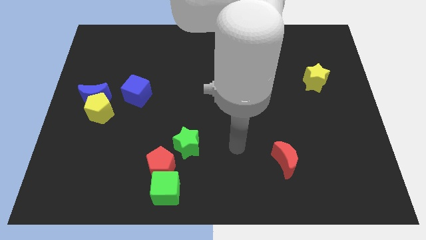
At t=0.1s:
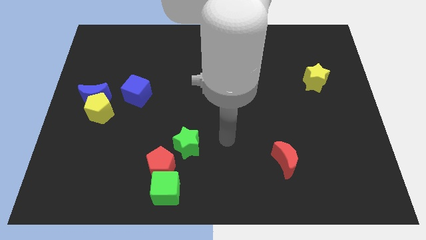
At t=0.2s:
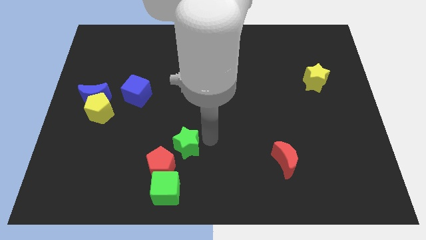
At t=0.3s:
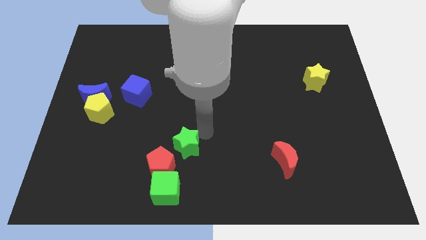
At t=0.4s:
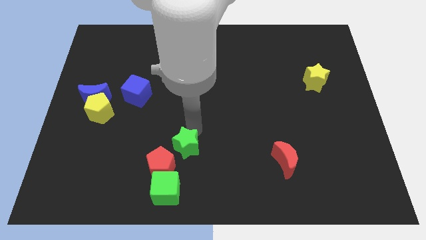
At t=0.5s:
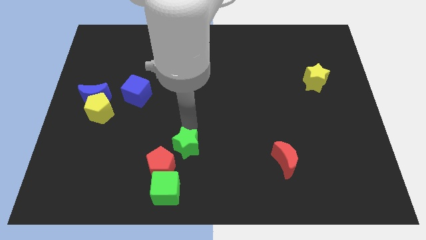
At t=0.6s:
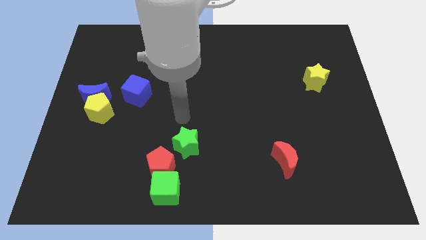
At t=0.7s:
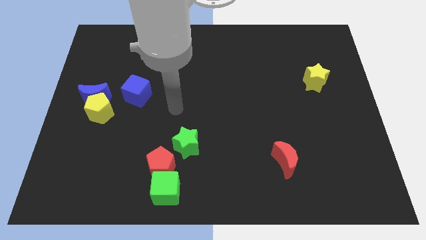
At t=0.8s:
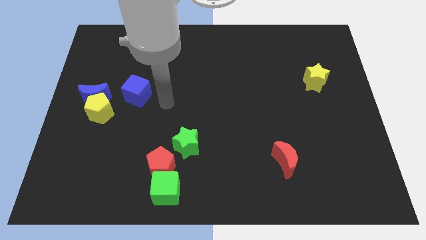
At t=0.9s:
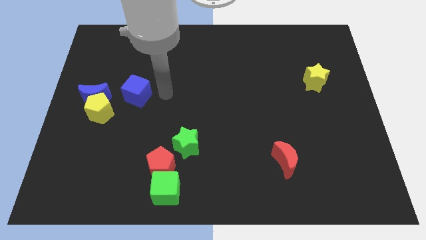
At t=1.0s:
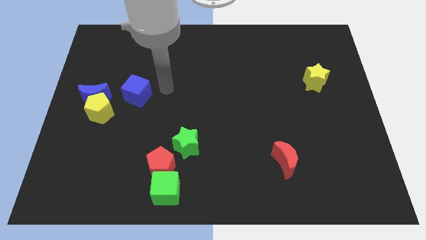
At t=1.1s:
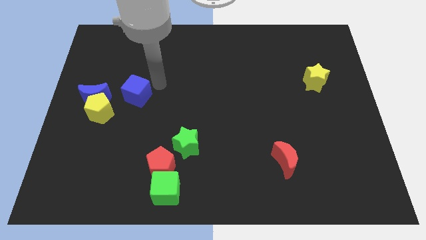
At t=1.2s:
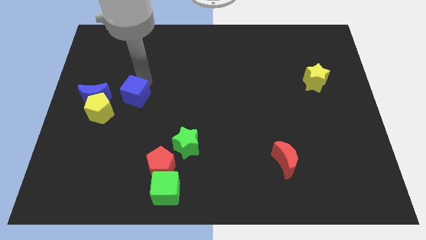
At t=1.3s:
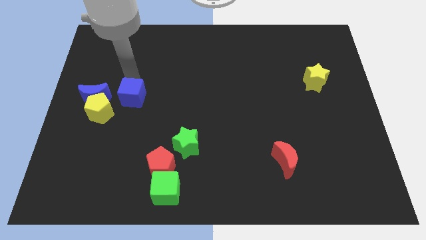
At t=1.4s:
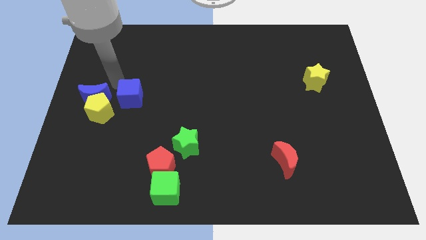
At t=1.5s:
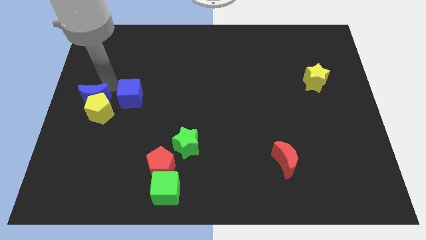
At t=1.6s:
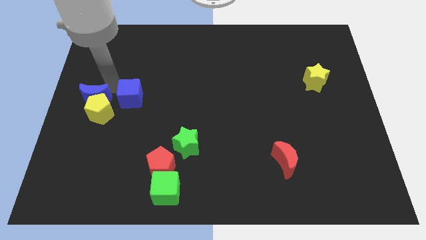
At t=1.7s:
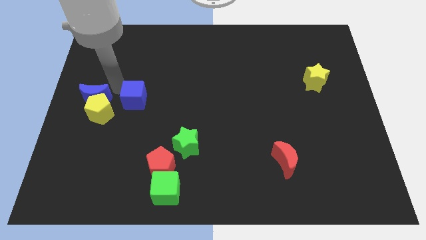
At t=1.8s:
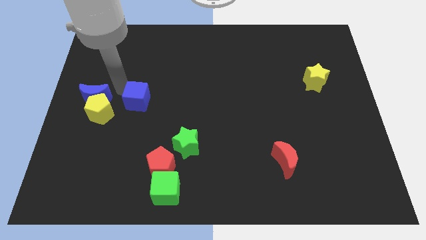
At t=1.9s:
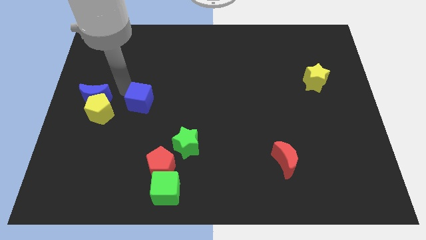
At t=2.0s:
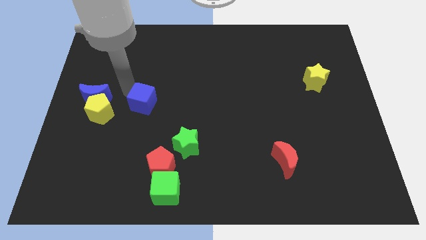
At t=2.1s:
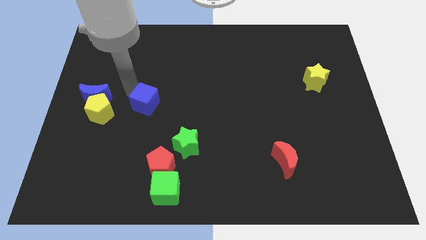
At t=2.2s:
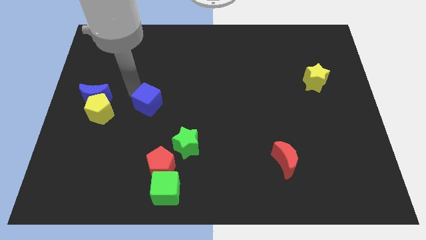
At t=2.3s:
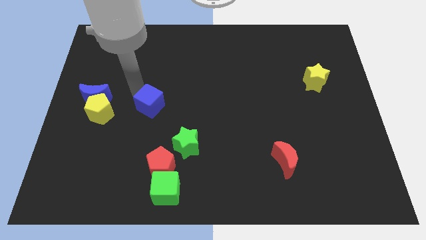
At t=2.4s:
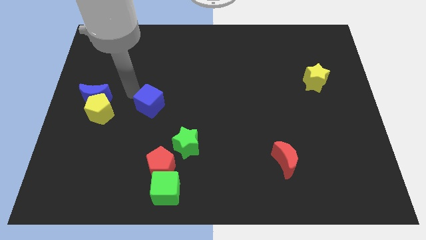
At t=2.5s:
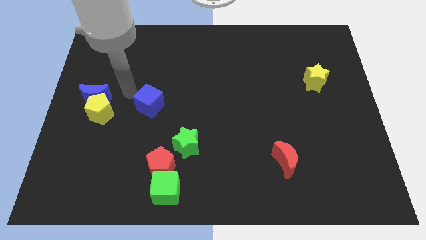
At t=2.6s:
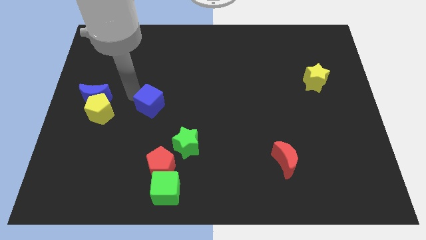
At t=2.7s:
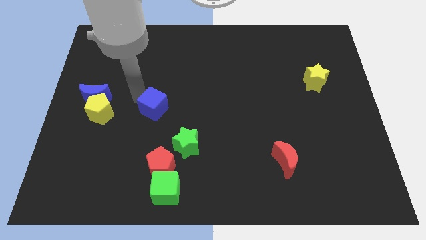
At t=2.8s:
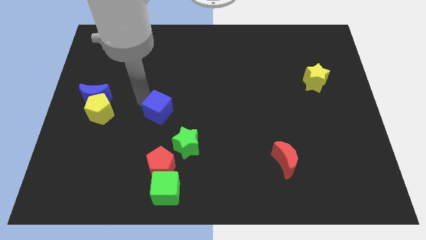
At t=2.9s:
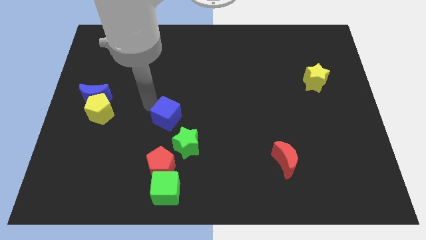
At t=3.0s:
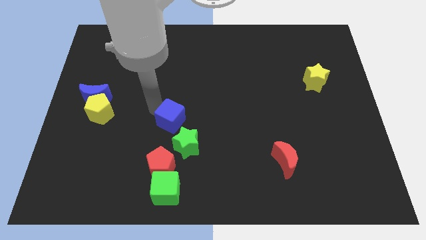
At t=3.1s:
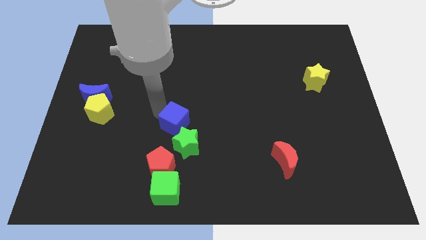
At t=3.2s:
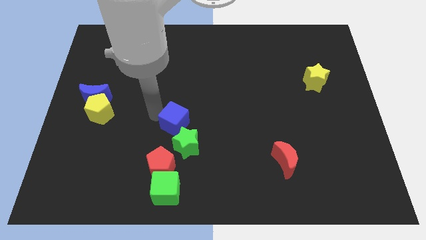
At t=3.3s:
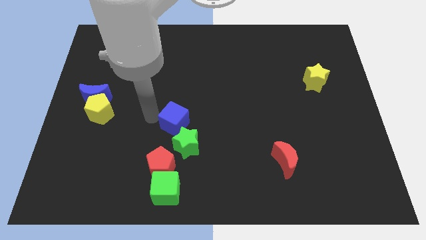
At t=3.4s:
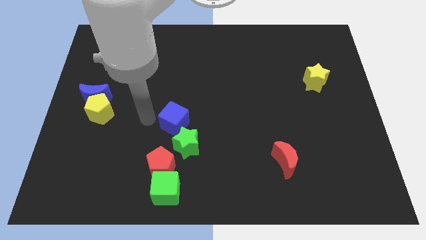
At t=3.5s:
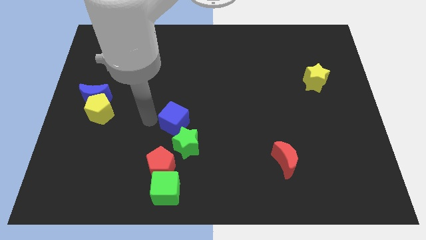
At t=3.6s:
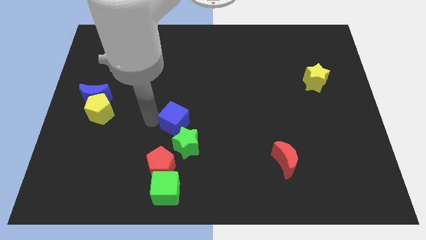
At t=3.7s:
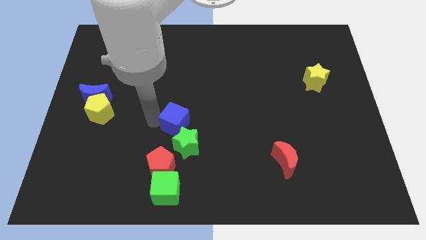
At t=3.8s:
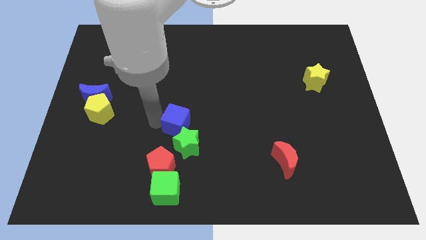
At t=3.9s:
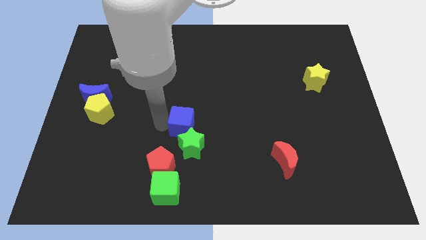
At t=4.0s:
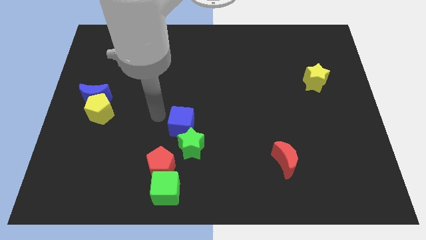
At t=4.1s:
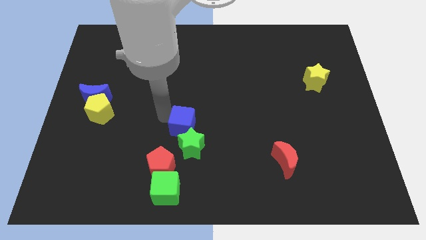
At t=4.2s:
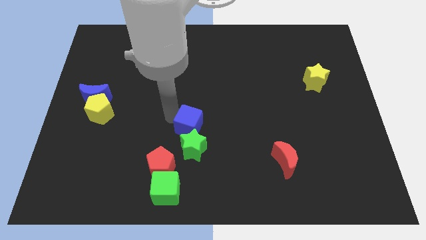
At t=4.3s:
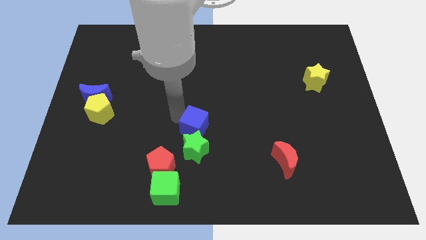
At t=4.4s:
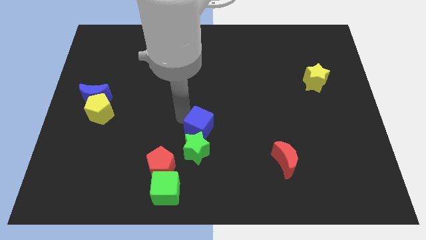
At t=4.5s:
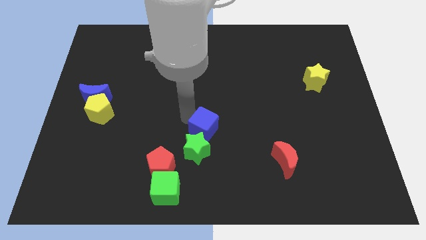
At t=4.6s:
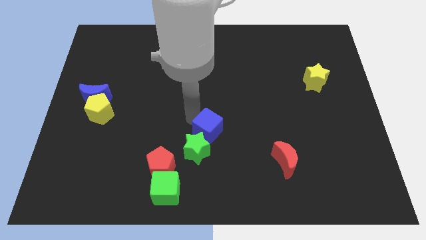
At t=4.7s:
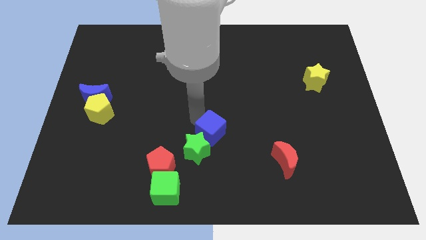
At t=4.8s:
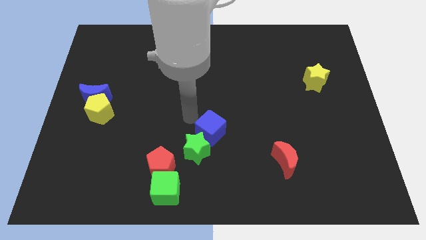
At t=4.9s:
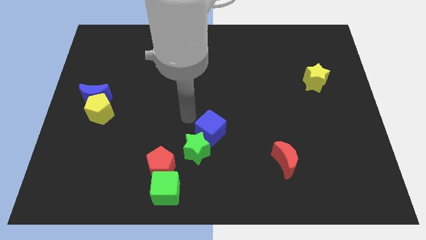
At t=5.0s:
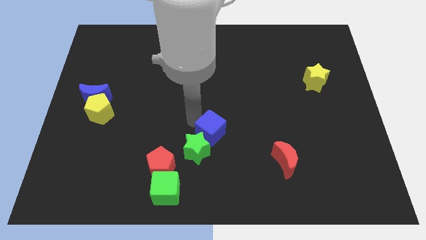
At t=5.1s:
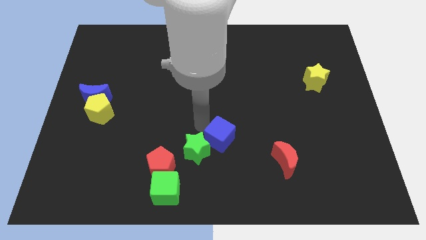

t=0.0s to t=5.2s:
slide the blue cube right of the green star

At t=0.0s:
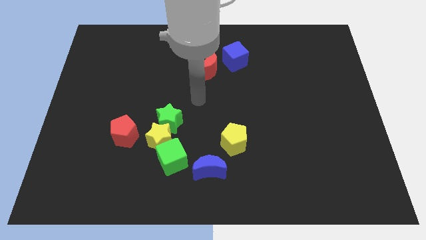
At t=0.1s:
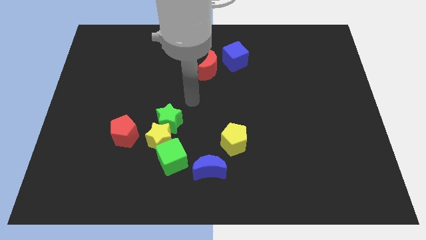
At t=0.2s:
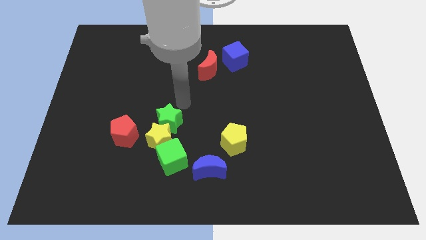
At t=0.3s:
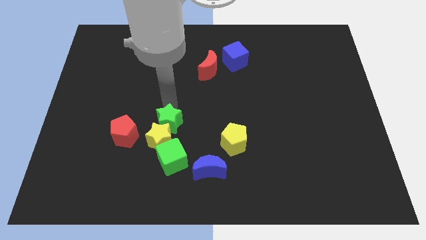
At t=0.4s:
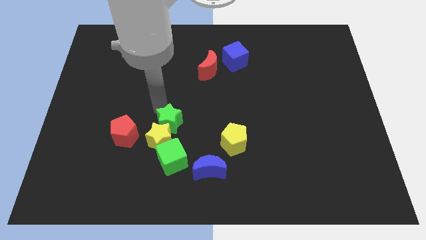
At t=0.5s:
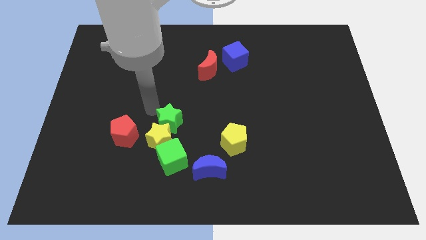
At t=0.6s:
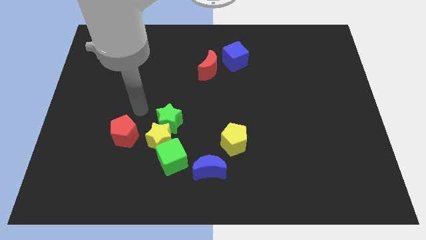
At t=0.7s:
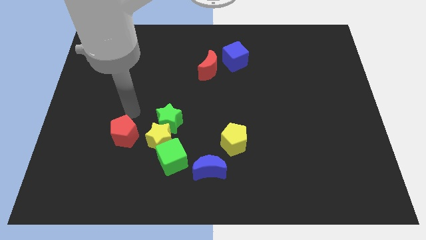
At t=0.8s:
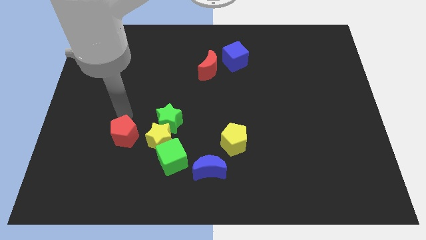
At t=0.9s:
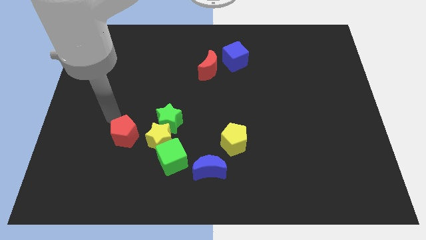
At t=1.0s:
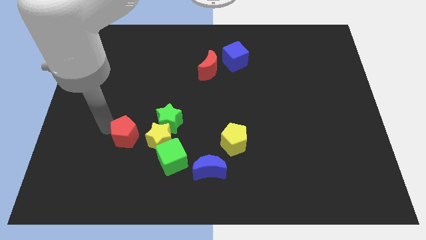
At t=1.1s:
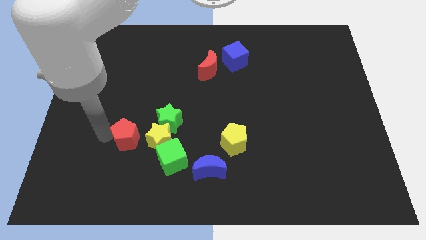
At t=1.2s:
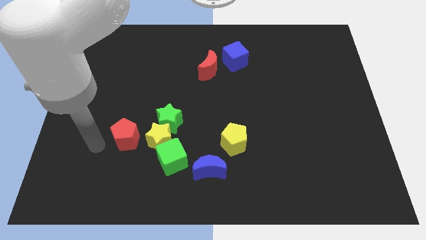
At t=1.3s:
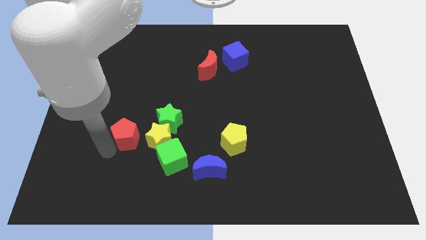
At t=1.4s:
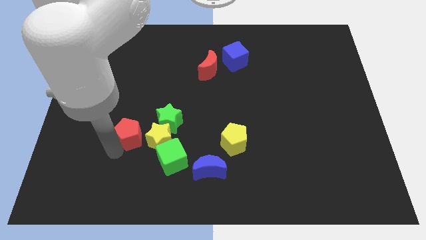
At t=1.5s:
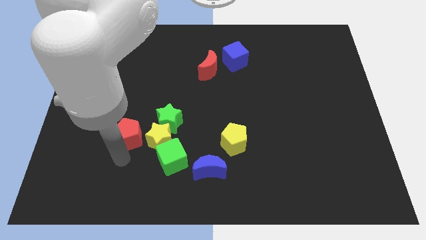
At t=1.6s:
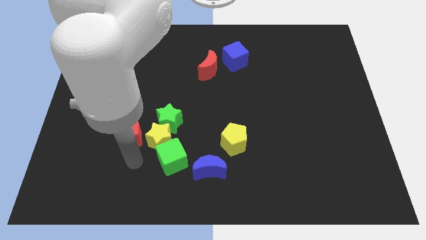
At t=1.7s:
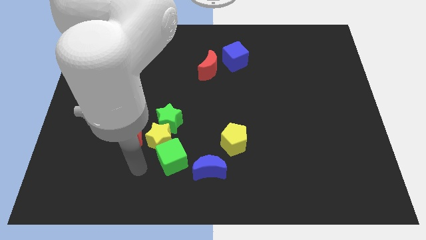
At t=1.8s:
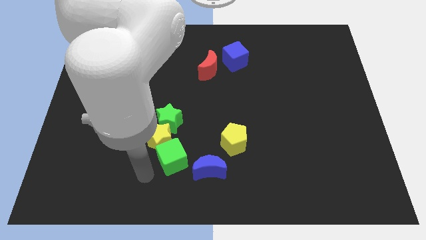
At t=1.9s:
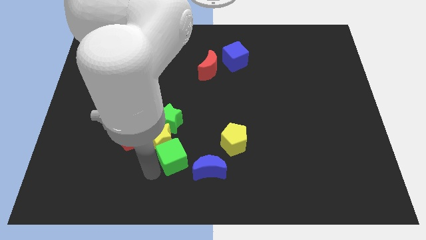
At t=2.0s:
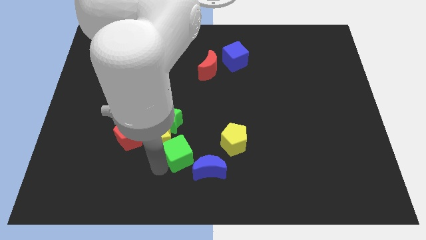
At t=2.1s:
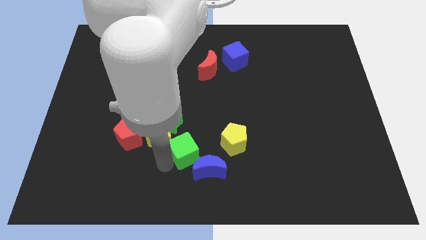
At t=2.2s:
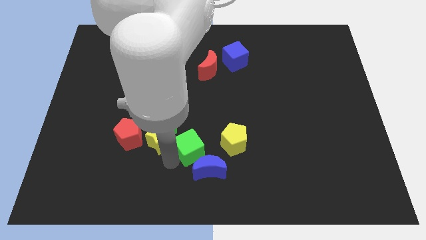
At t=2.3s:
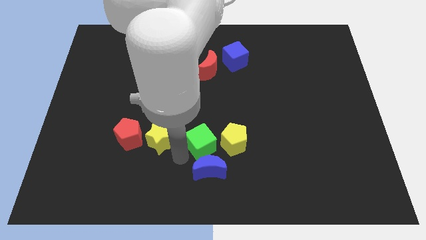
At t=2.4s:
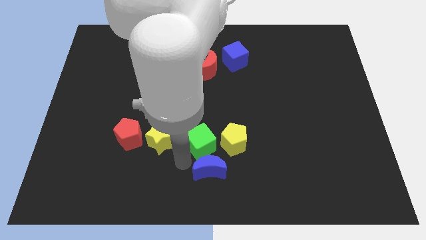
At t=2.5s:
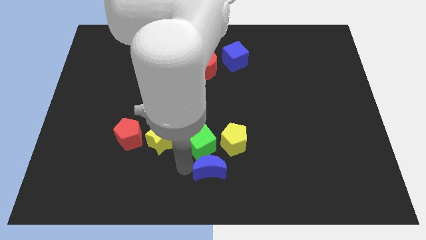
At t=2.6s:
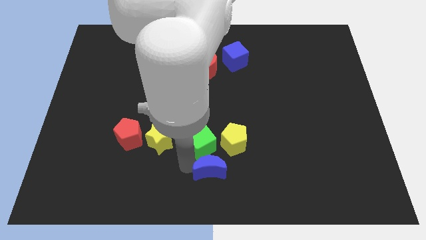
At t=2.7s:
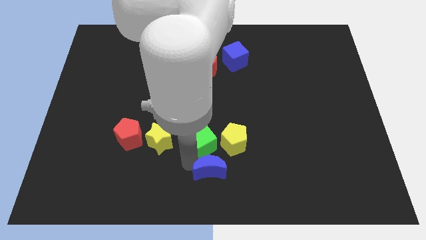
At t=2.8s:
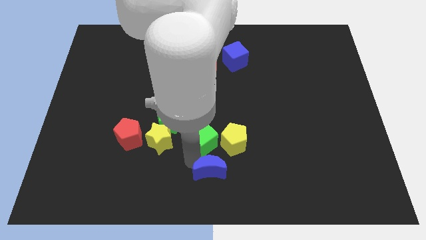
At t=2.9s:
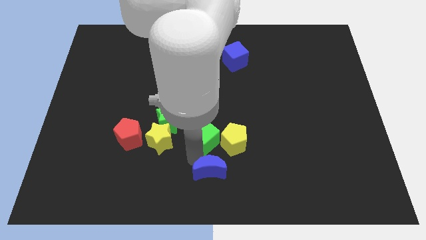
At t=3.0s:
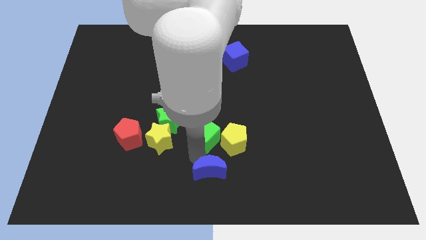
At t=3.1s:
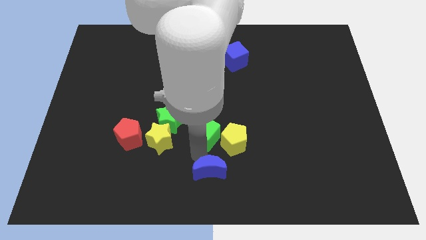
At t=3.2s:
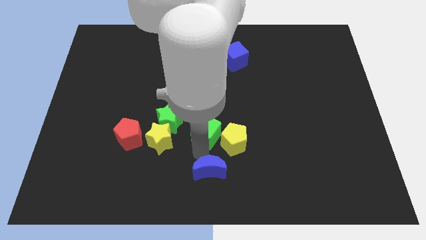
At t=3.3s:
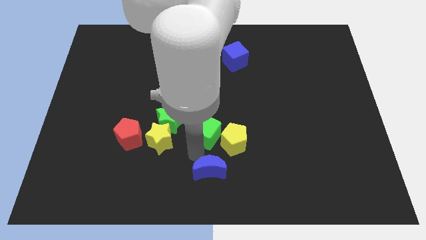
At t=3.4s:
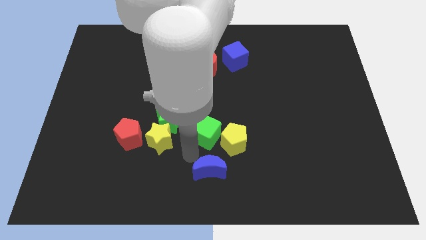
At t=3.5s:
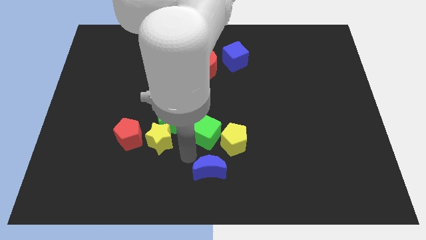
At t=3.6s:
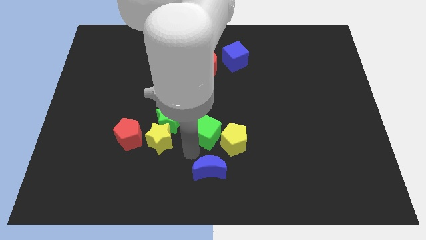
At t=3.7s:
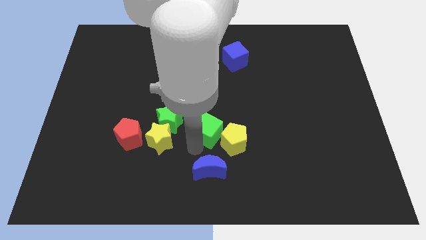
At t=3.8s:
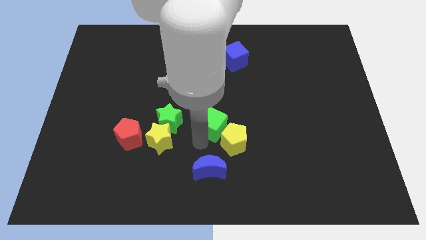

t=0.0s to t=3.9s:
put the green cube to the top of the yellow pentagon
